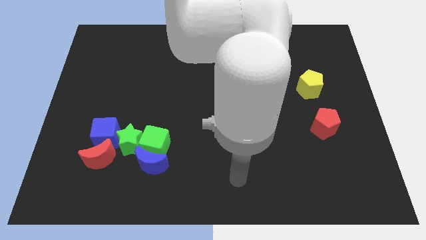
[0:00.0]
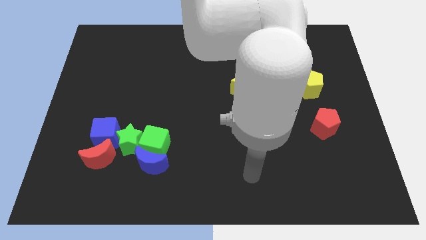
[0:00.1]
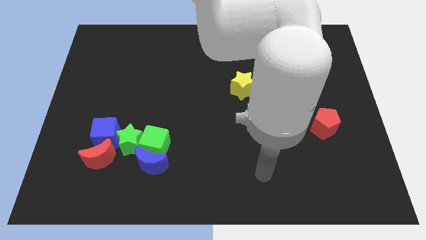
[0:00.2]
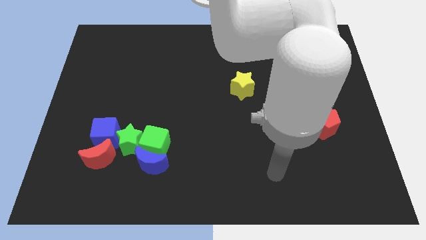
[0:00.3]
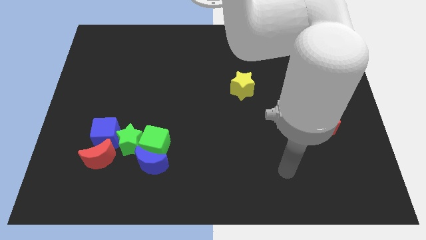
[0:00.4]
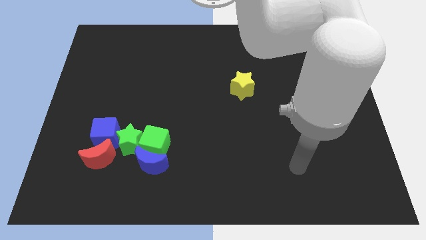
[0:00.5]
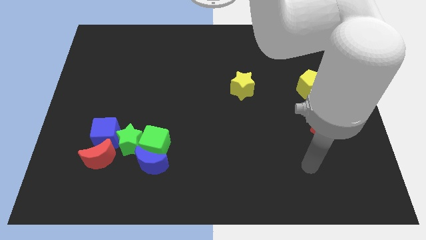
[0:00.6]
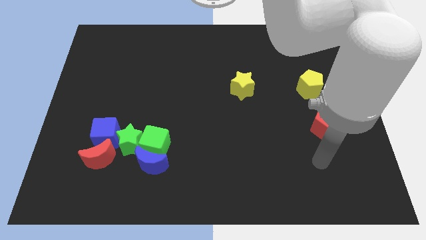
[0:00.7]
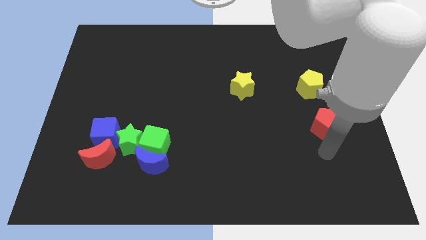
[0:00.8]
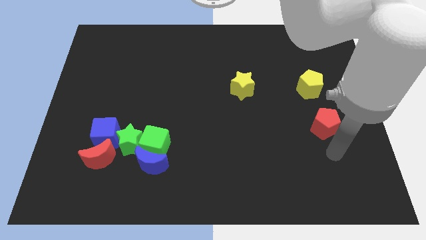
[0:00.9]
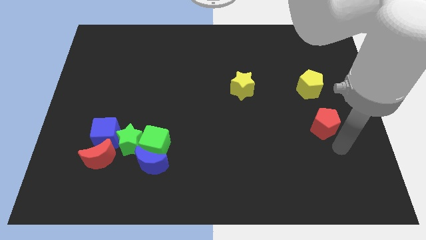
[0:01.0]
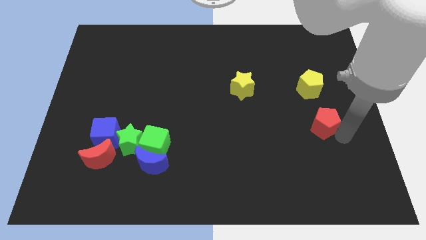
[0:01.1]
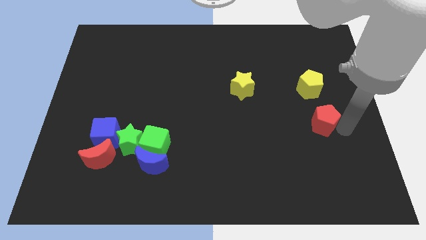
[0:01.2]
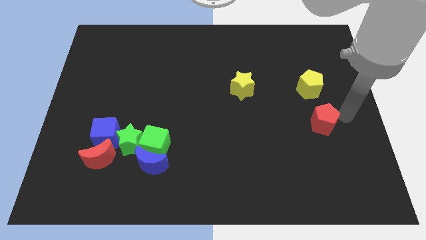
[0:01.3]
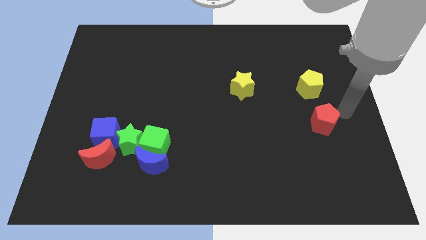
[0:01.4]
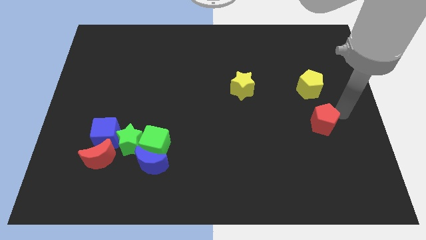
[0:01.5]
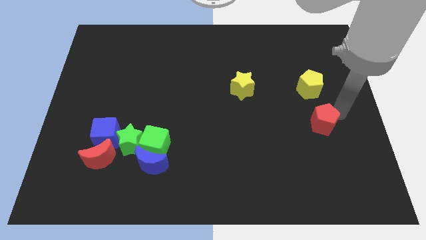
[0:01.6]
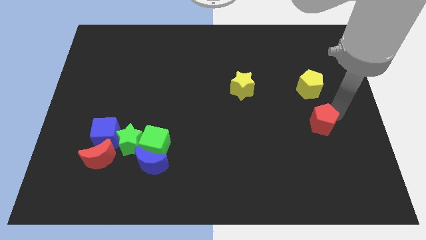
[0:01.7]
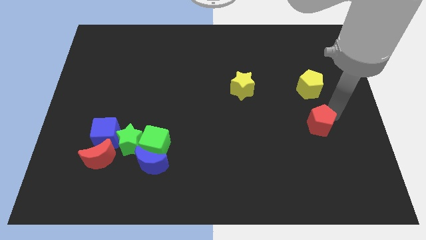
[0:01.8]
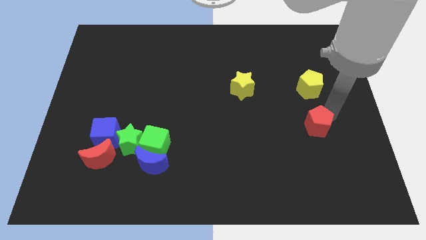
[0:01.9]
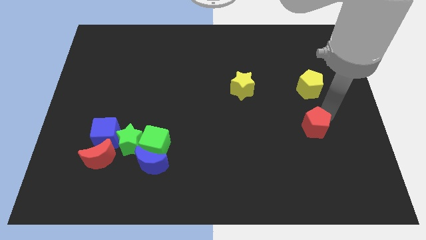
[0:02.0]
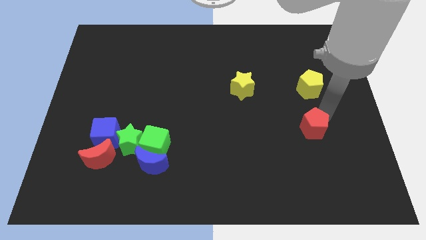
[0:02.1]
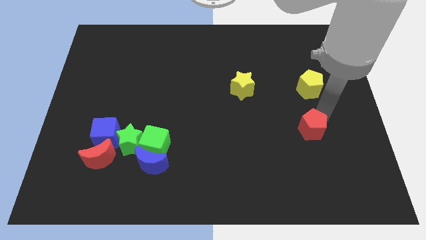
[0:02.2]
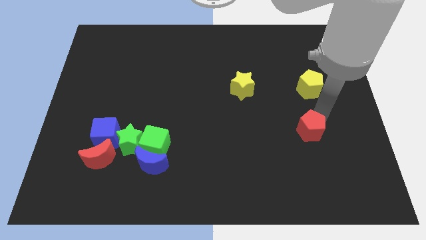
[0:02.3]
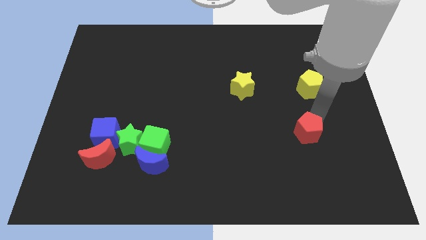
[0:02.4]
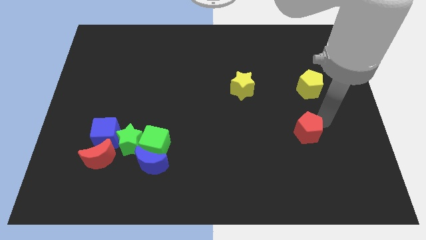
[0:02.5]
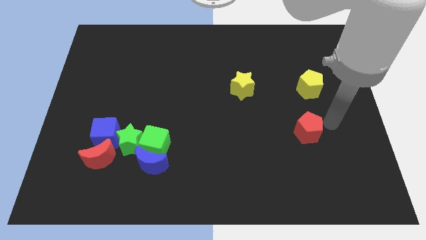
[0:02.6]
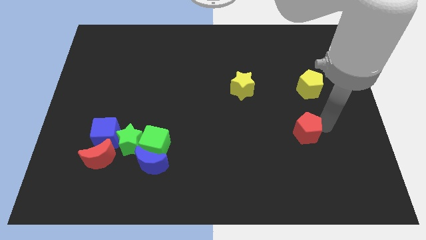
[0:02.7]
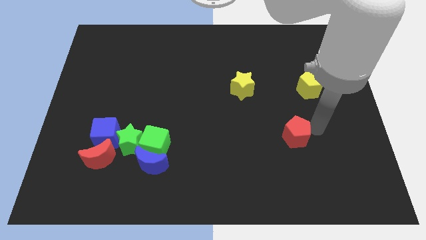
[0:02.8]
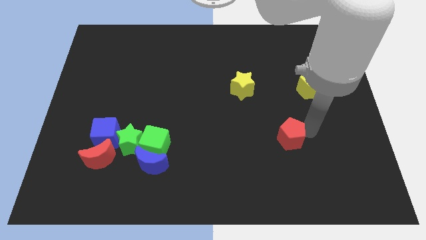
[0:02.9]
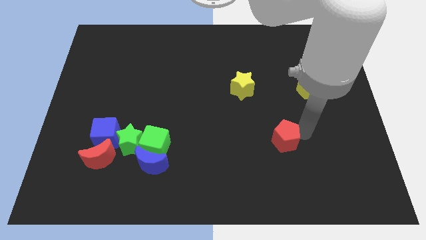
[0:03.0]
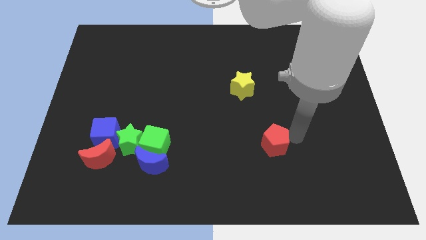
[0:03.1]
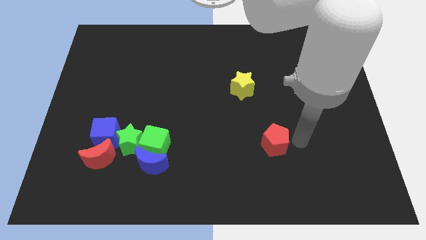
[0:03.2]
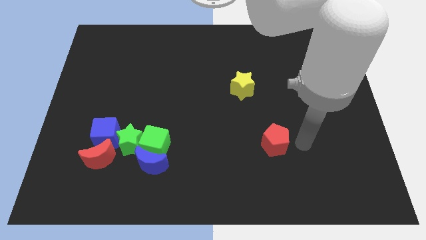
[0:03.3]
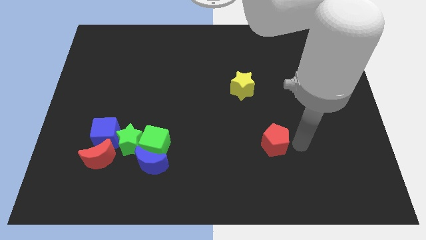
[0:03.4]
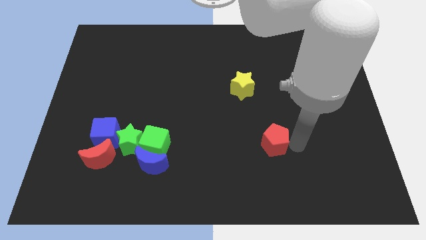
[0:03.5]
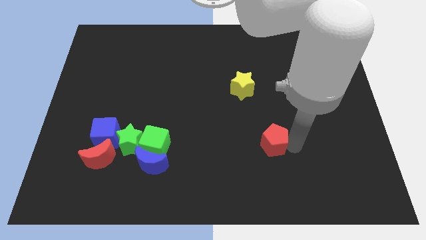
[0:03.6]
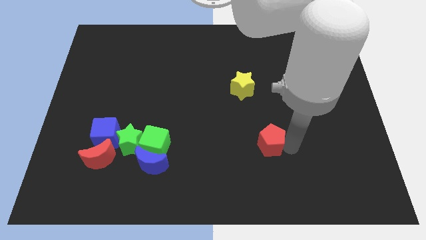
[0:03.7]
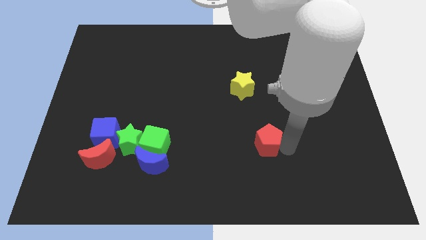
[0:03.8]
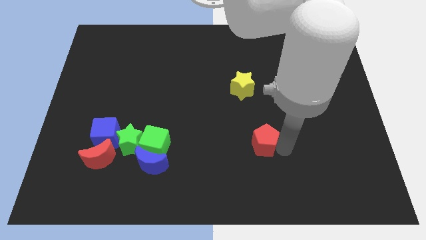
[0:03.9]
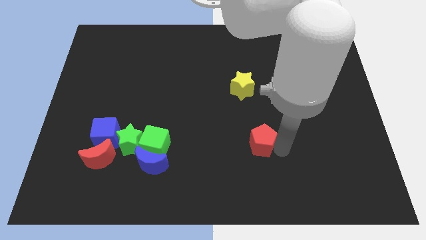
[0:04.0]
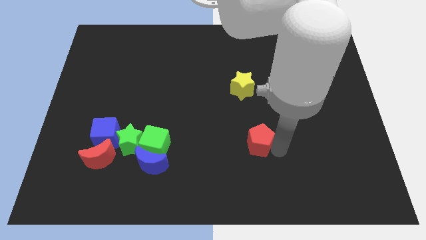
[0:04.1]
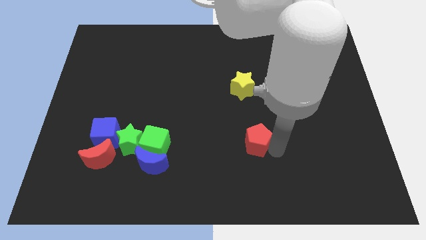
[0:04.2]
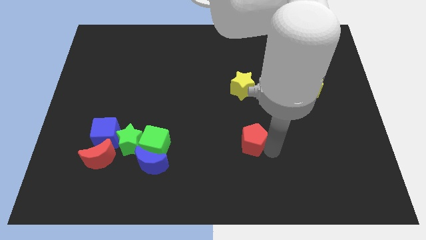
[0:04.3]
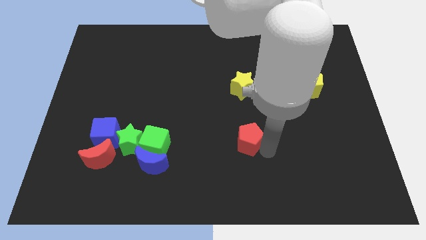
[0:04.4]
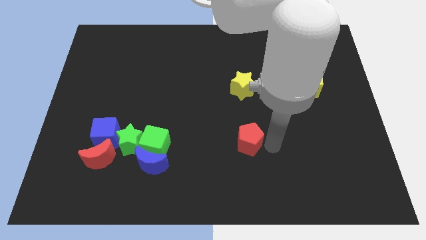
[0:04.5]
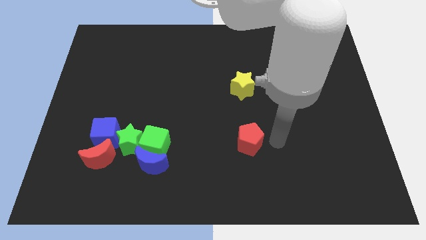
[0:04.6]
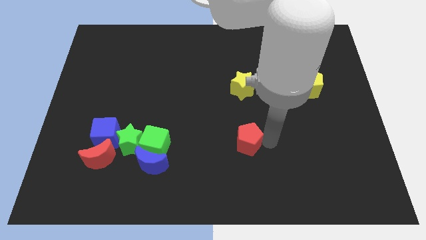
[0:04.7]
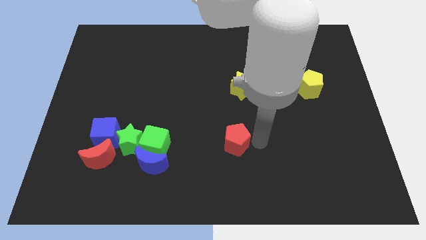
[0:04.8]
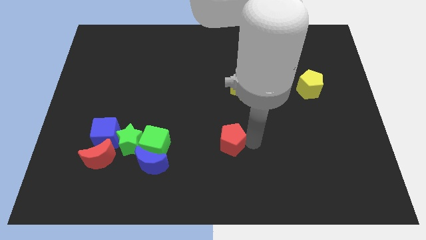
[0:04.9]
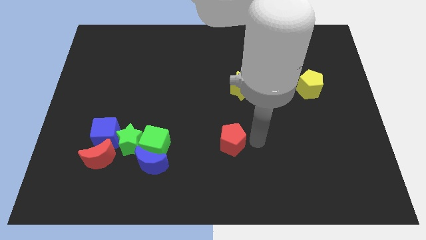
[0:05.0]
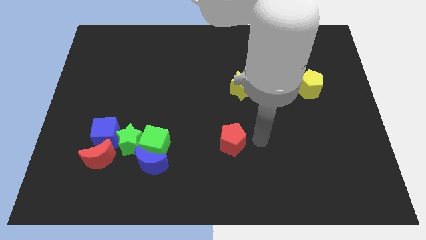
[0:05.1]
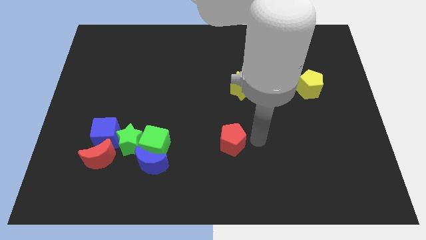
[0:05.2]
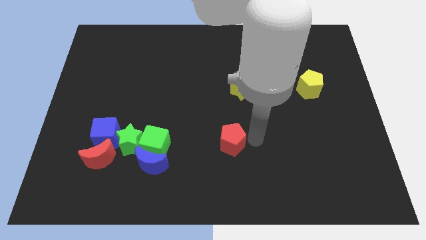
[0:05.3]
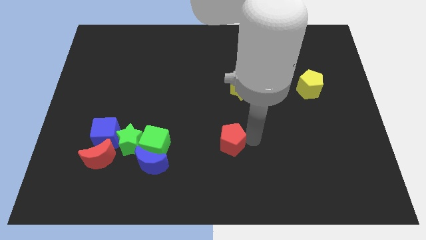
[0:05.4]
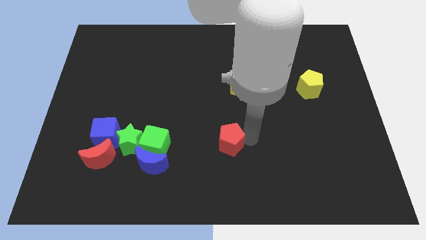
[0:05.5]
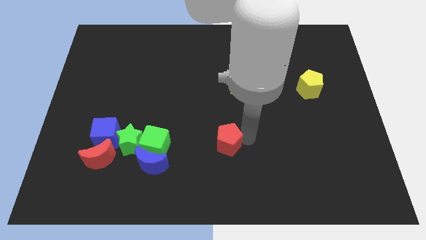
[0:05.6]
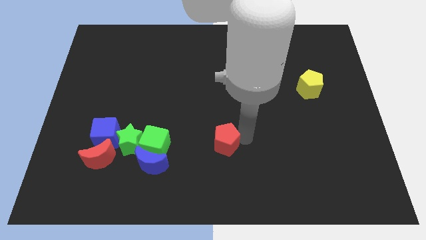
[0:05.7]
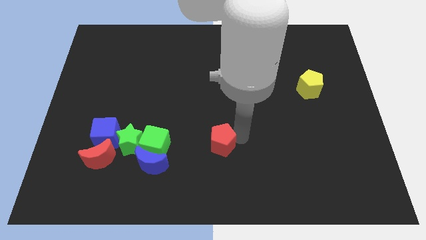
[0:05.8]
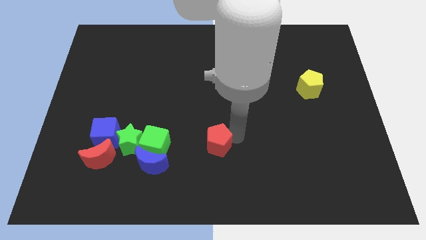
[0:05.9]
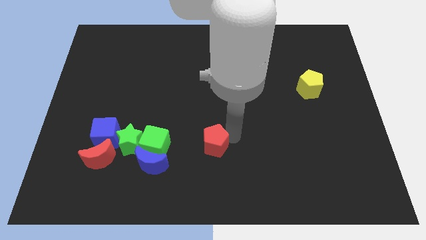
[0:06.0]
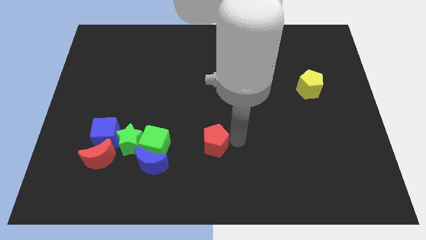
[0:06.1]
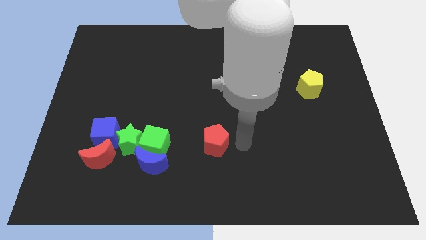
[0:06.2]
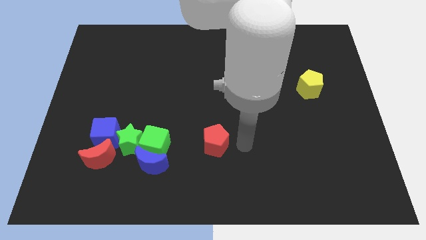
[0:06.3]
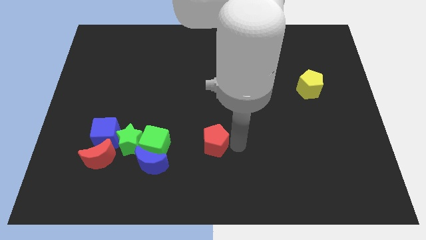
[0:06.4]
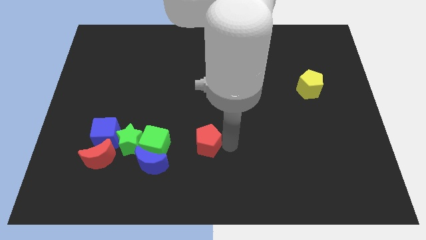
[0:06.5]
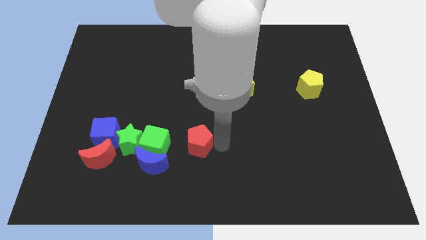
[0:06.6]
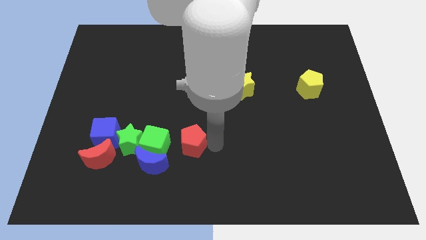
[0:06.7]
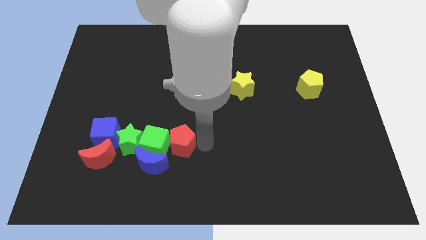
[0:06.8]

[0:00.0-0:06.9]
push the red pentagon close to the green cube
